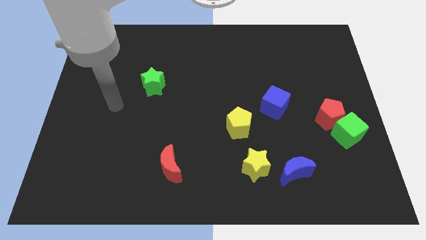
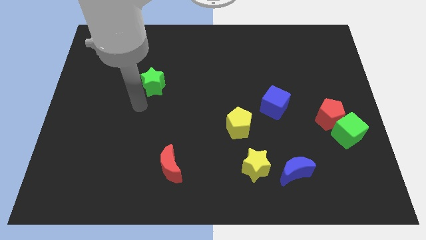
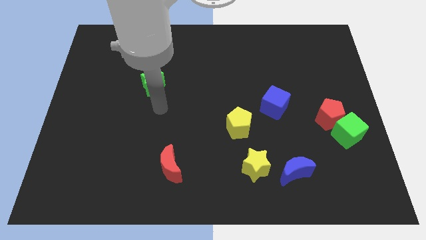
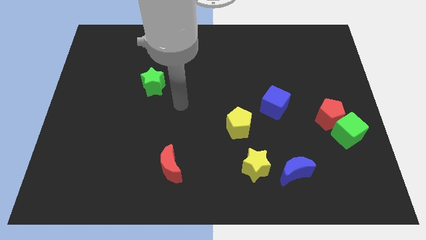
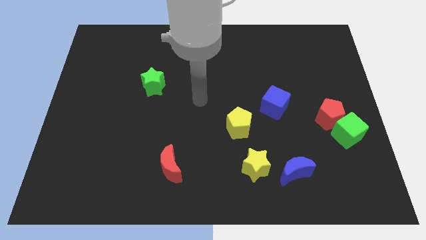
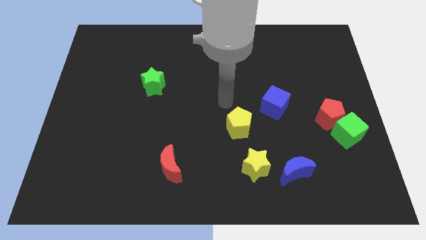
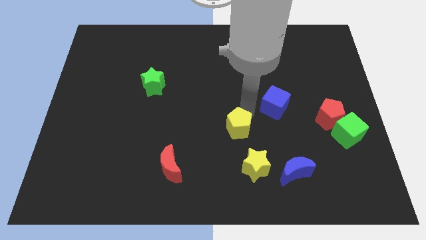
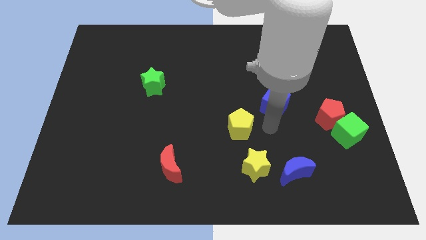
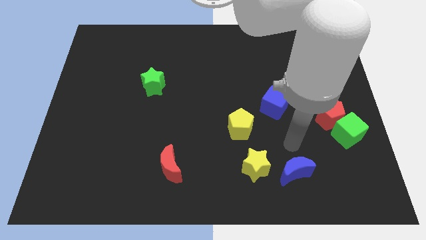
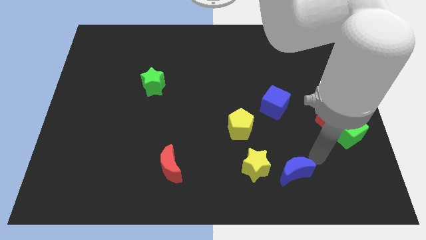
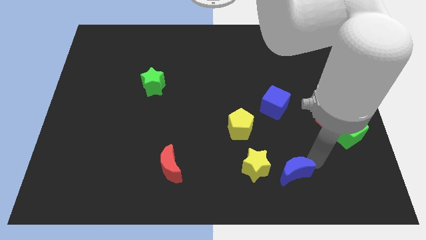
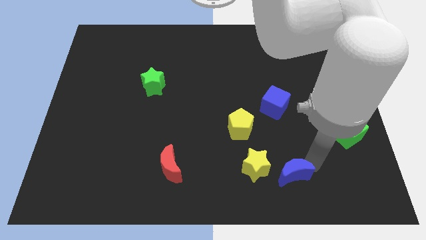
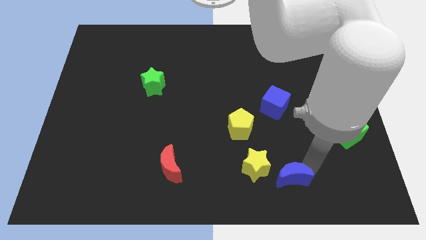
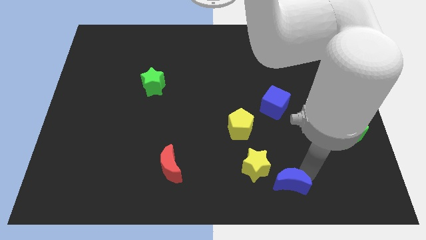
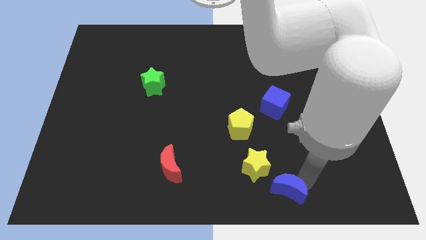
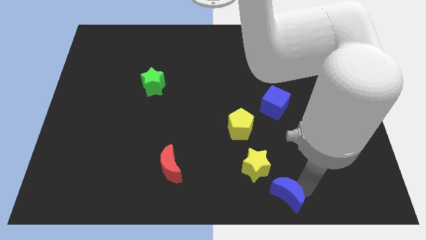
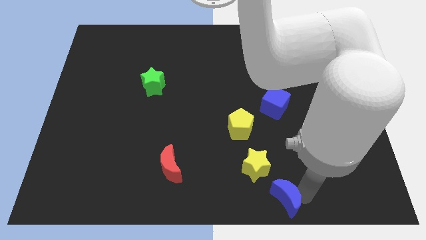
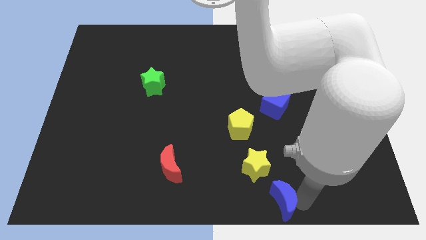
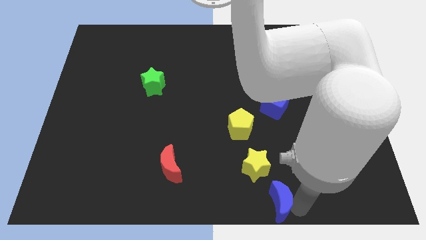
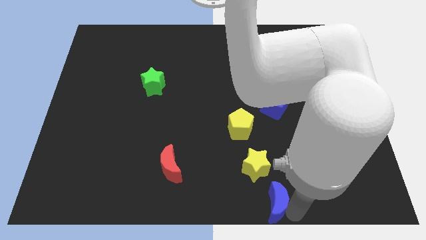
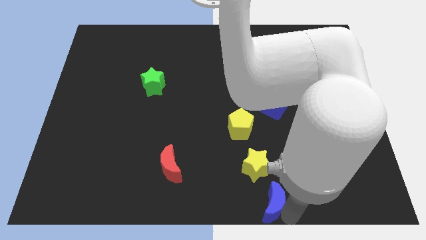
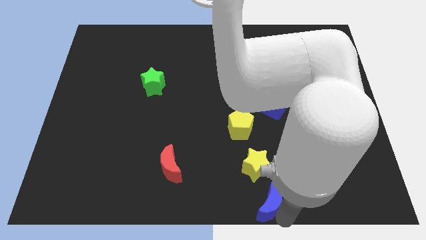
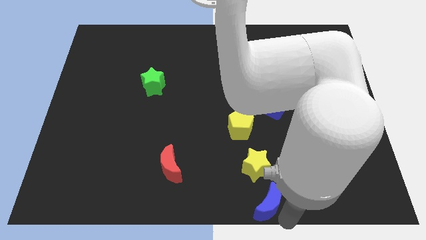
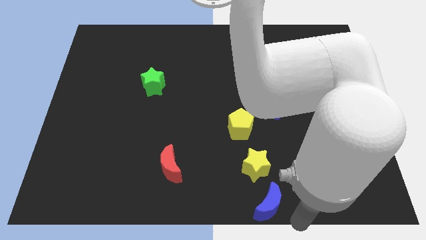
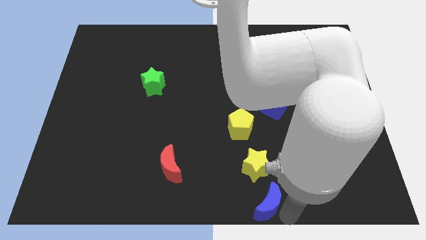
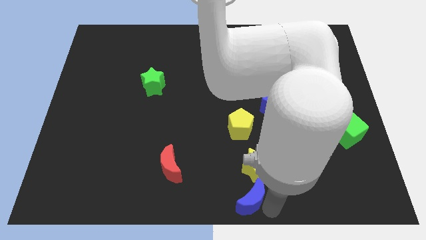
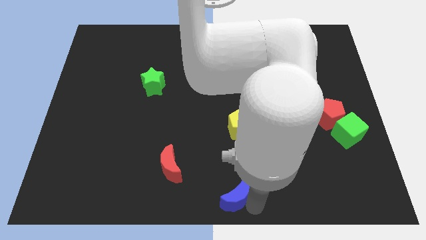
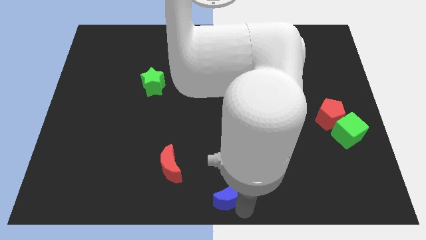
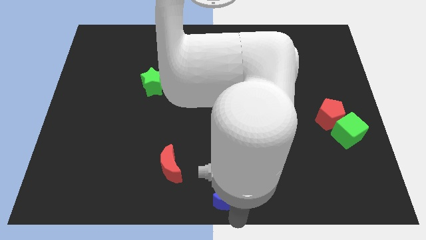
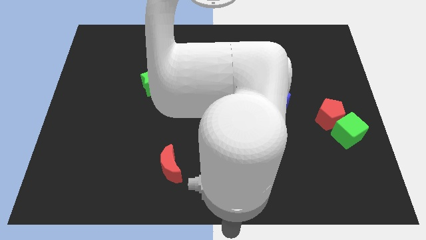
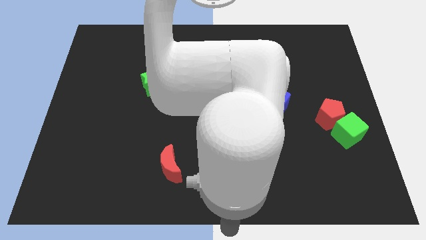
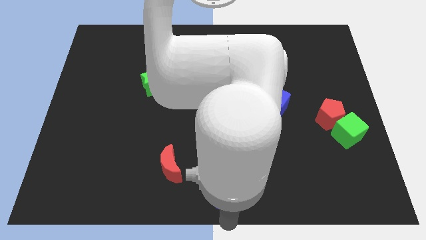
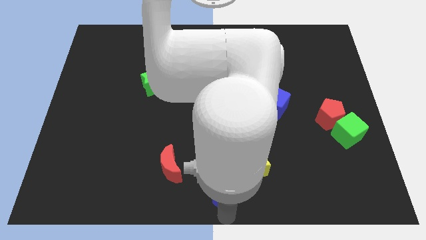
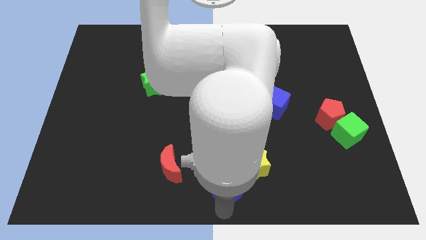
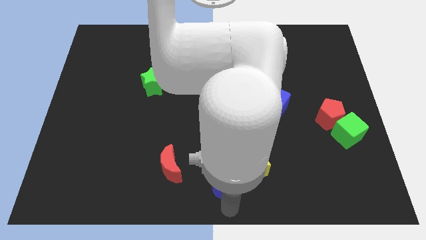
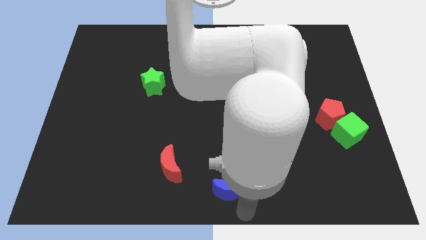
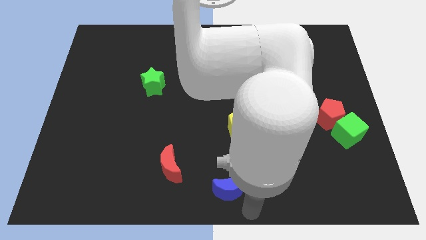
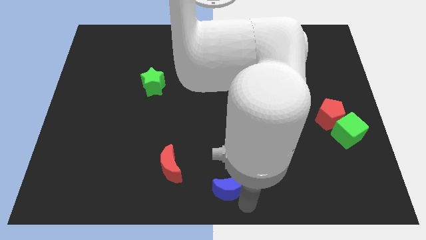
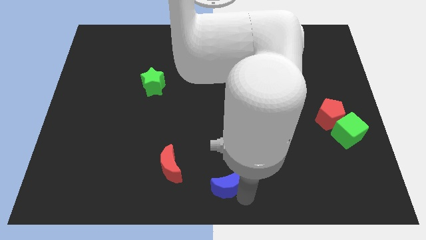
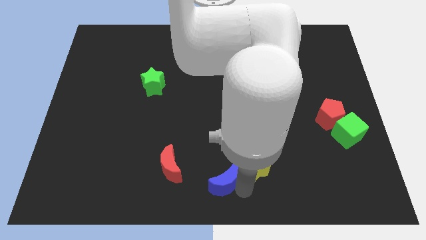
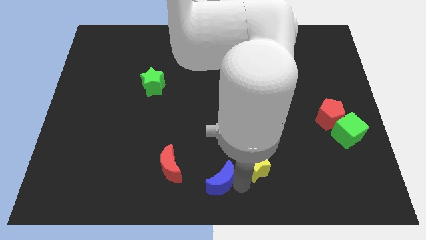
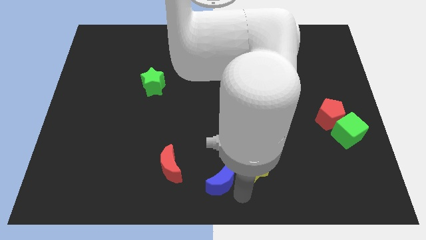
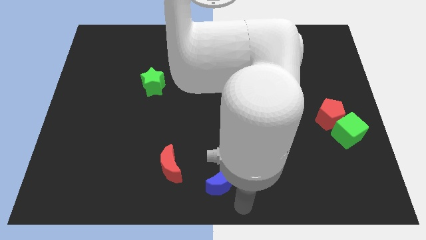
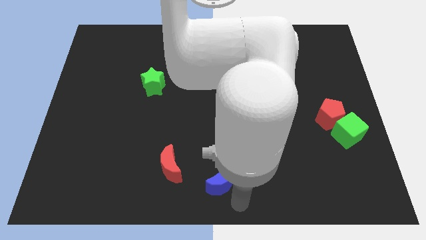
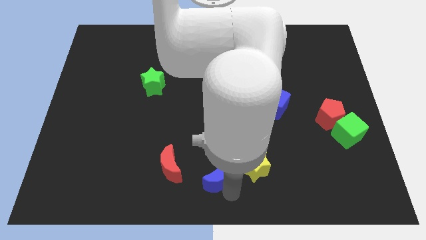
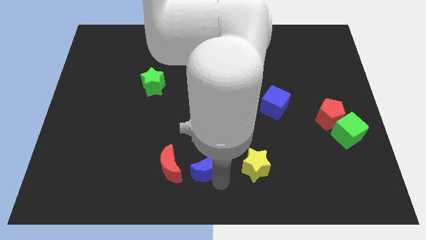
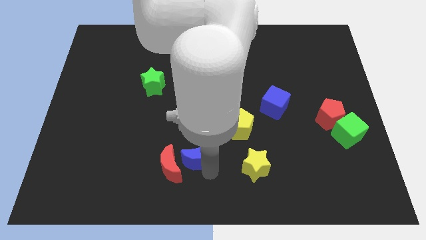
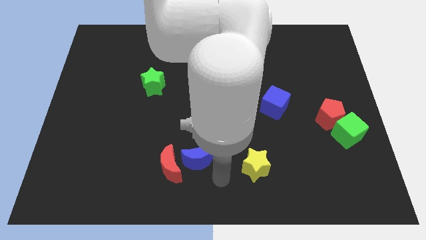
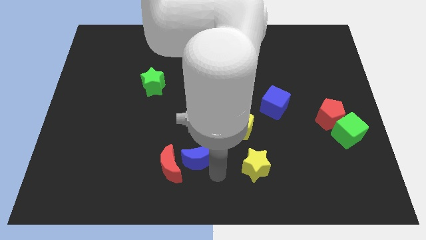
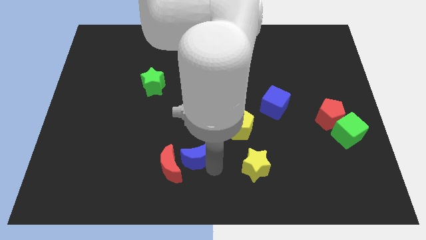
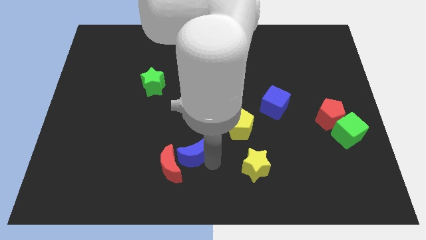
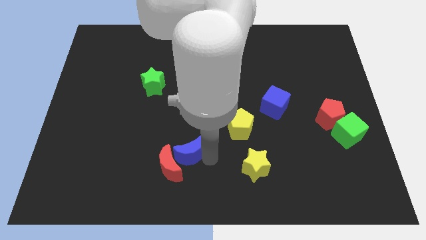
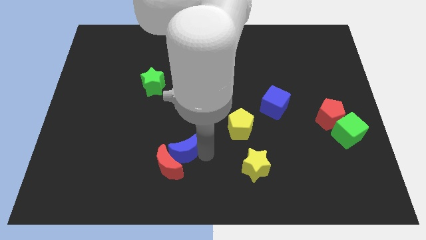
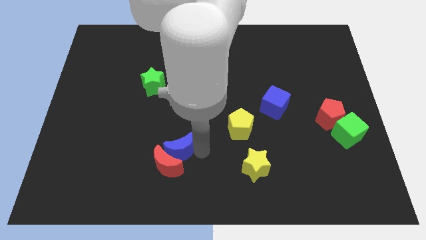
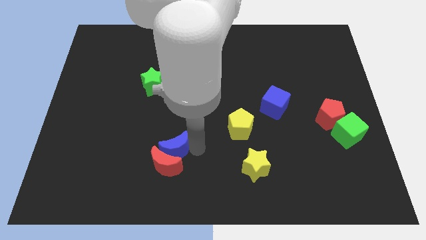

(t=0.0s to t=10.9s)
push the blue moon diagonally up and to the left of the red moon

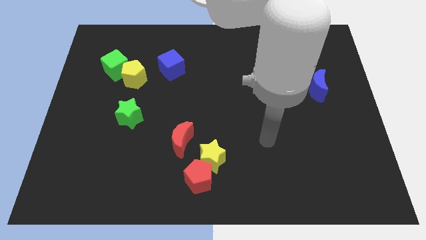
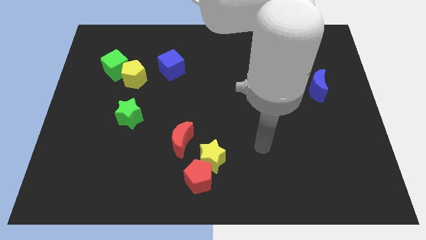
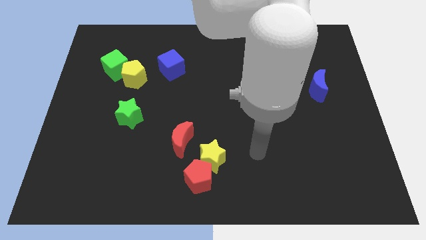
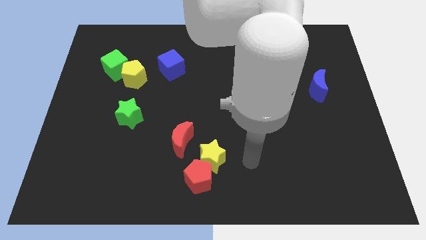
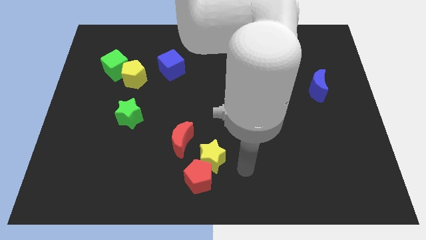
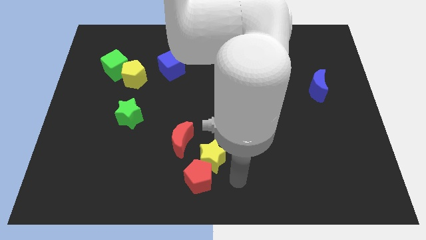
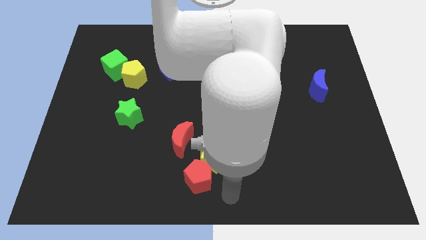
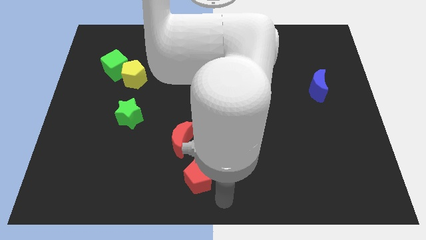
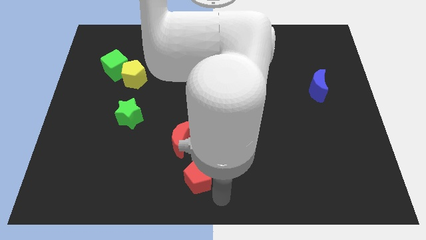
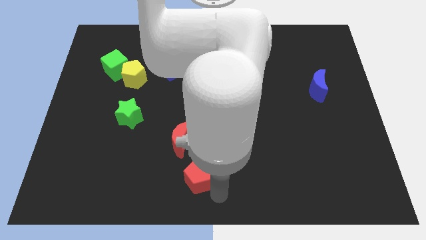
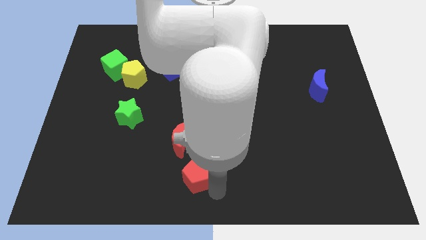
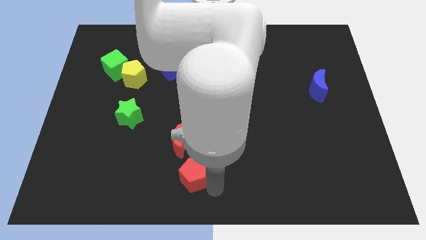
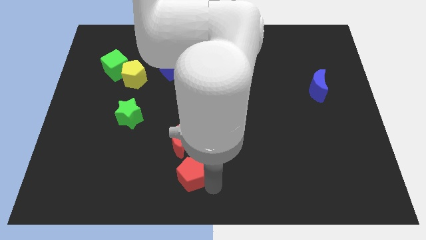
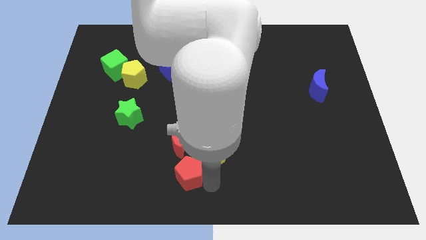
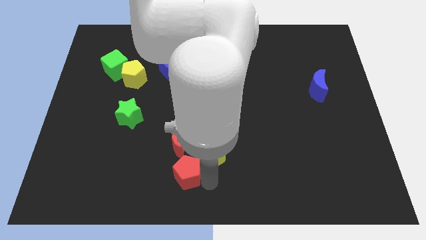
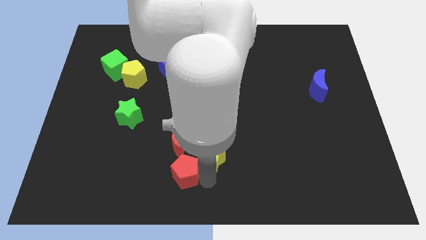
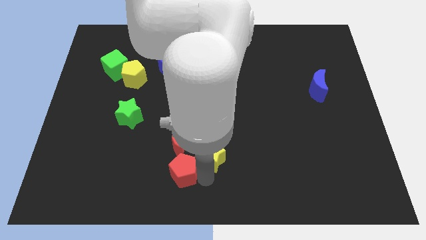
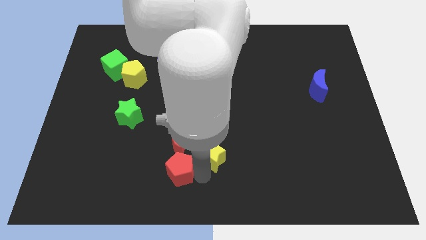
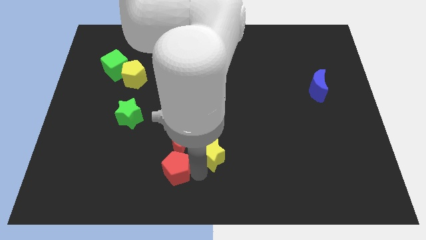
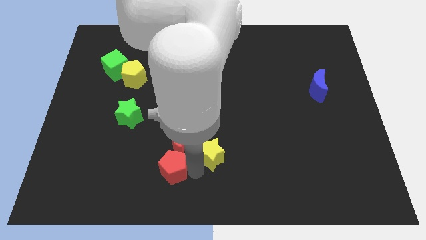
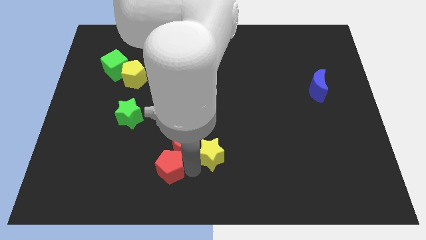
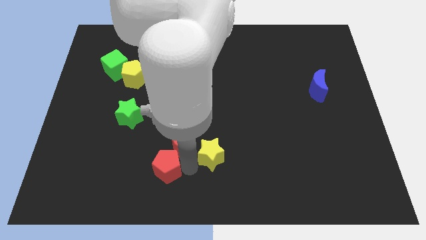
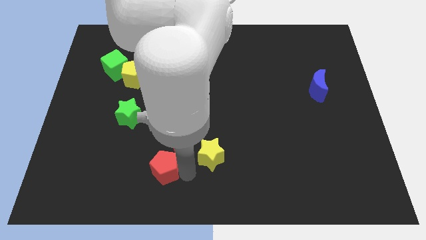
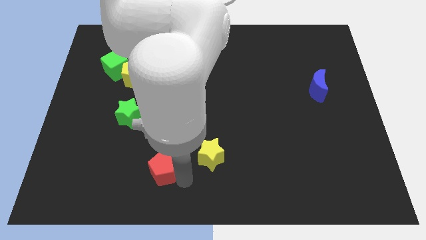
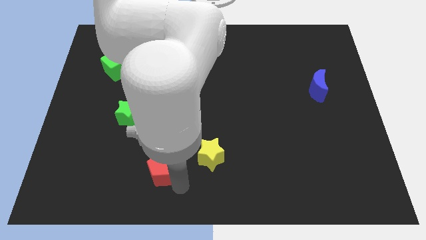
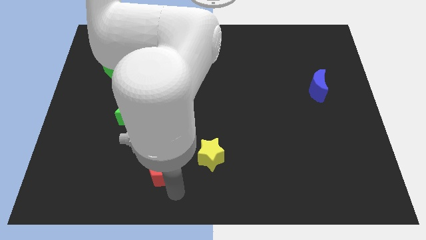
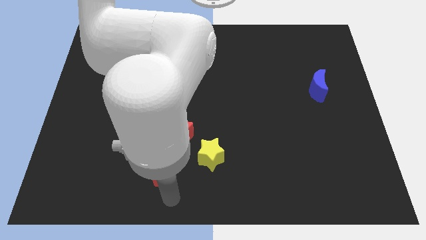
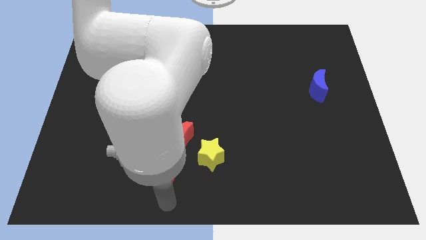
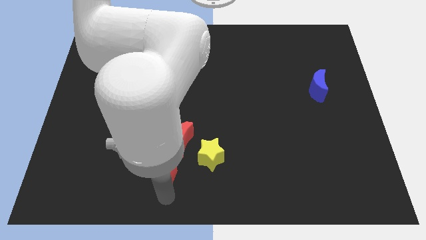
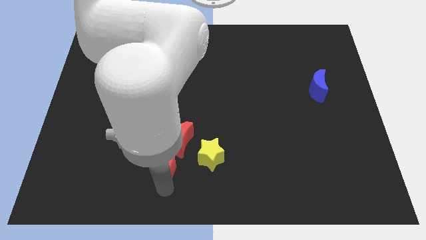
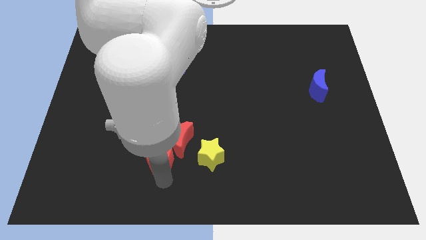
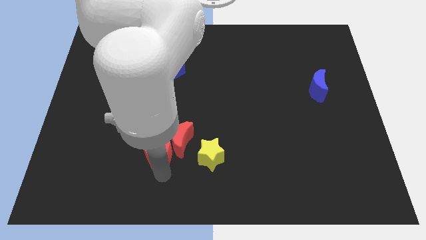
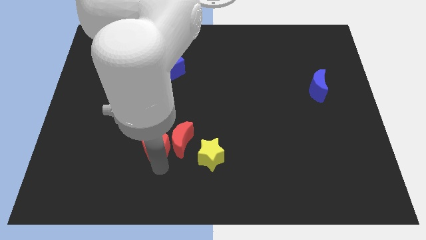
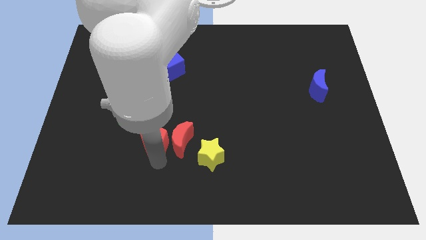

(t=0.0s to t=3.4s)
push the red pentagon to the top left side of the red moon
